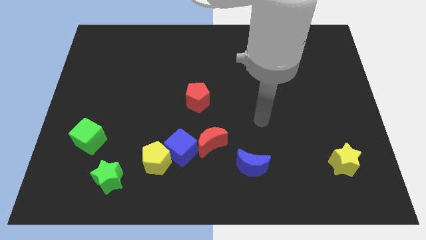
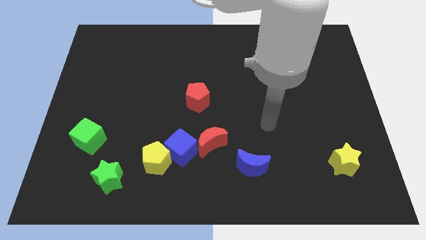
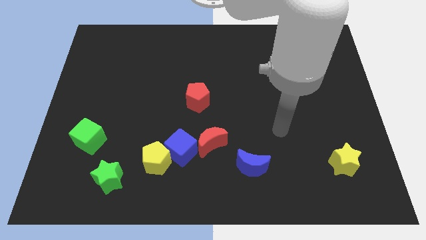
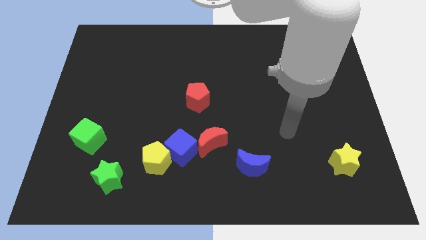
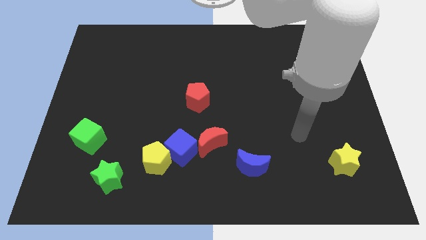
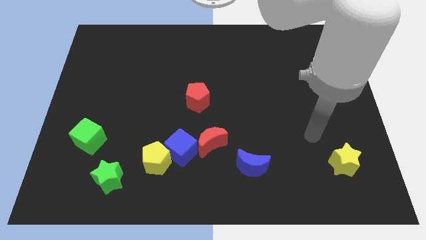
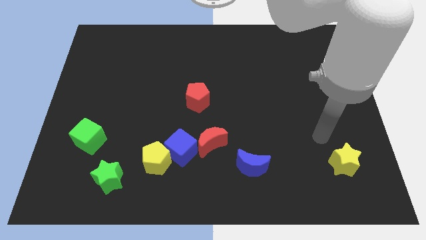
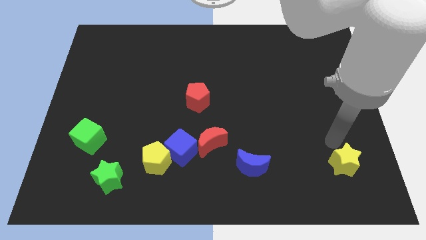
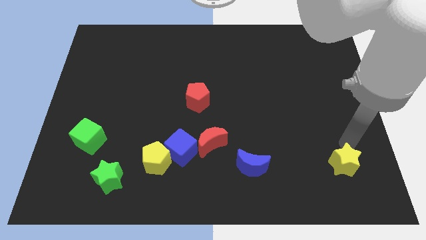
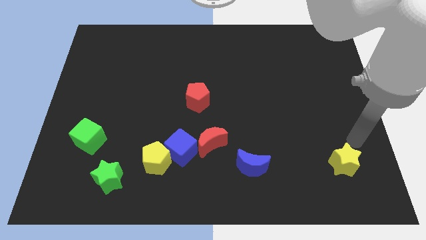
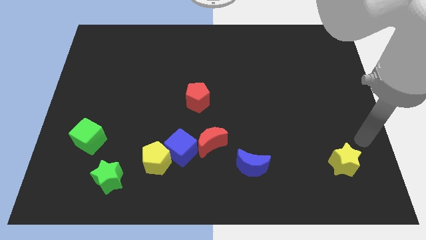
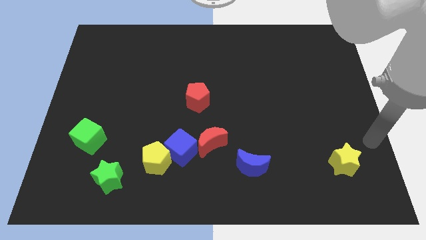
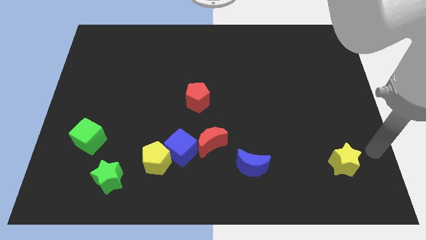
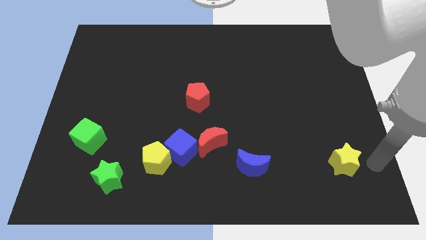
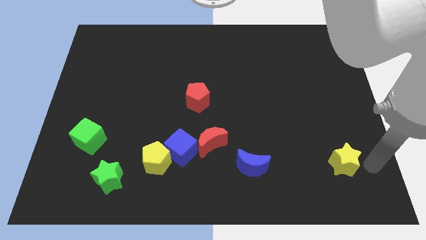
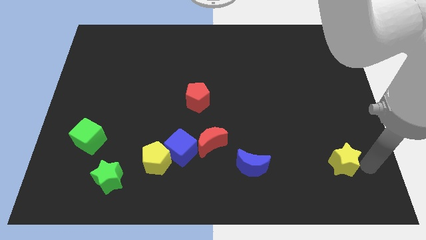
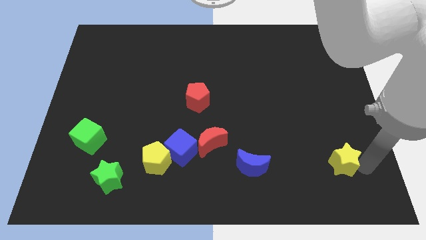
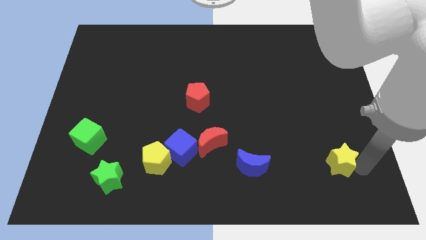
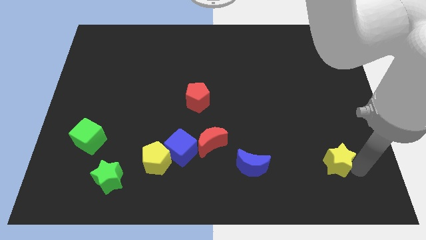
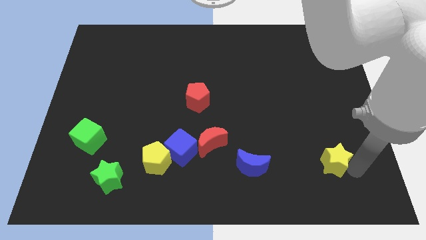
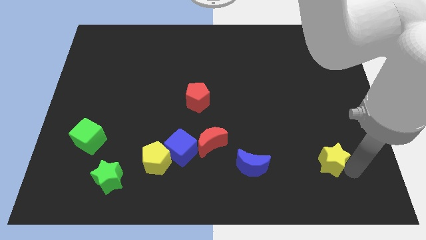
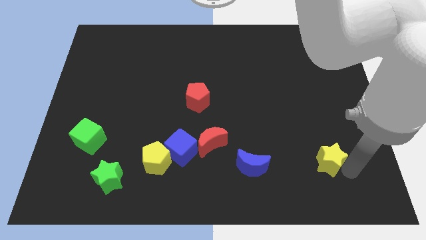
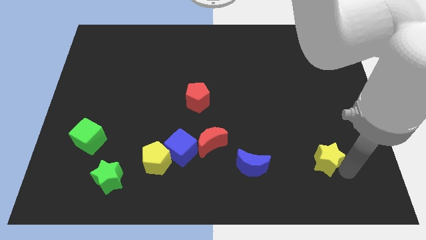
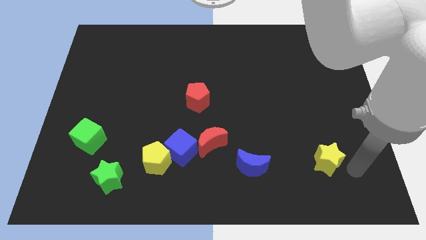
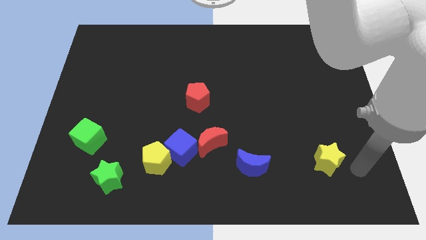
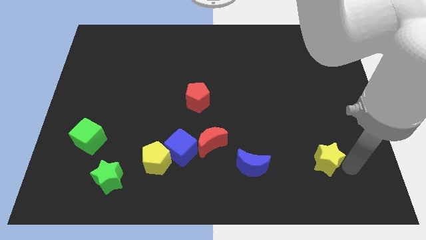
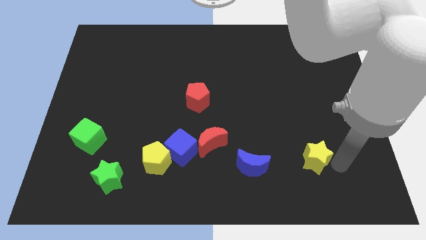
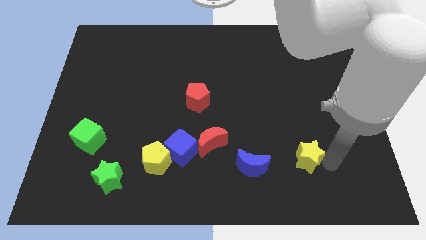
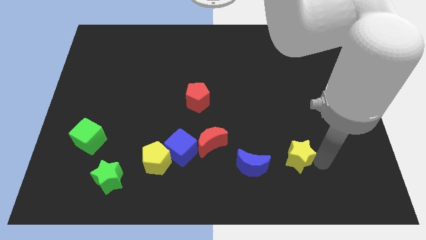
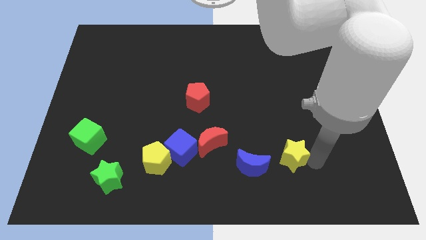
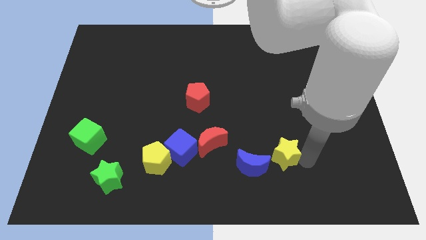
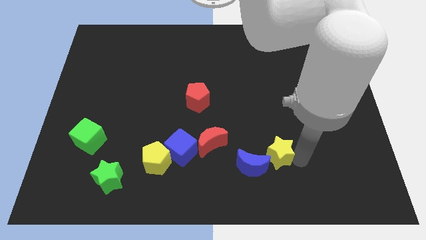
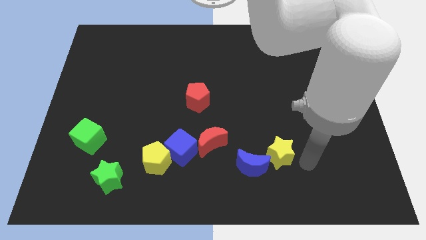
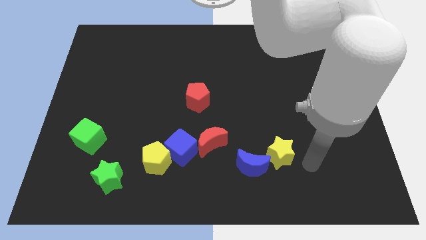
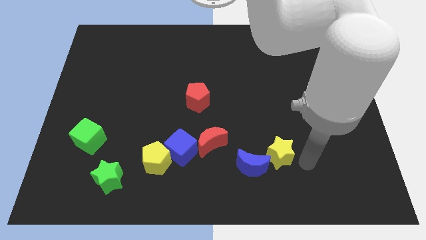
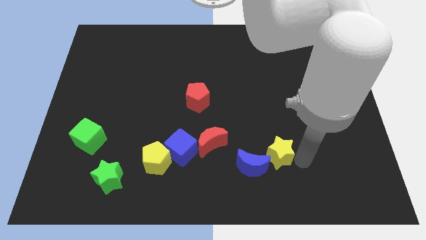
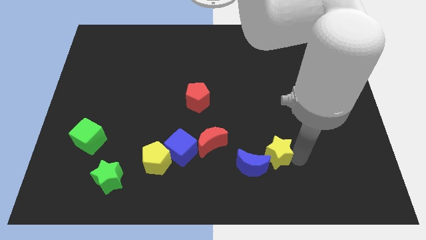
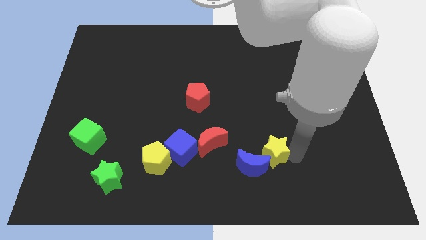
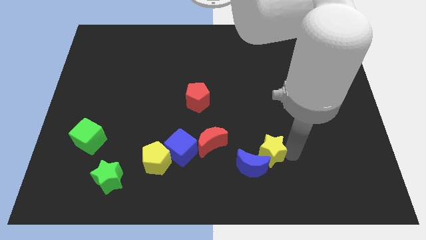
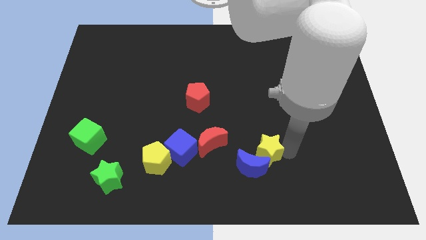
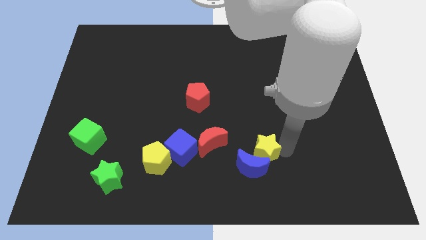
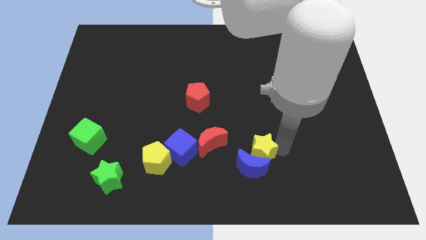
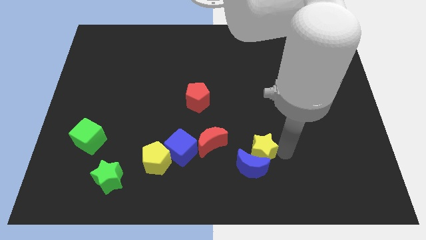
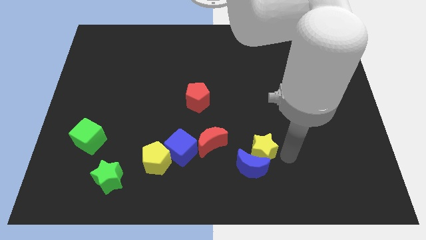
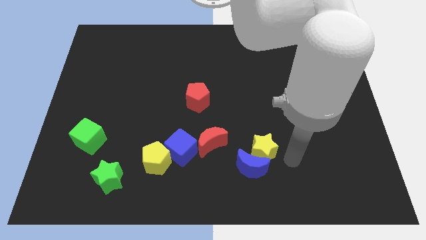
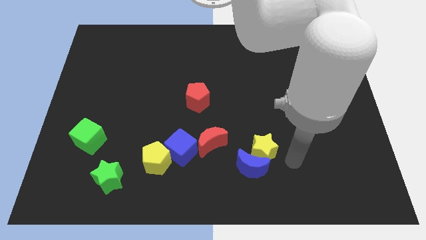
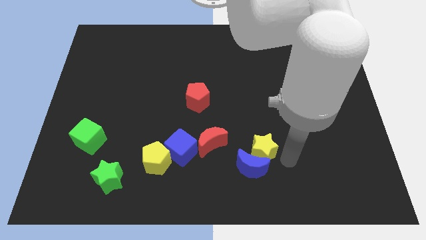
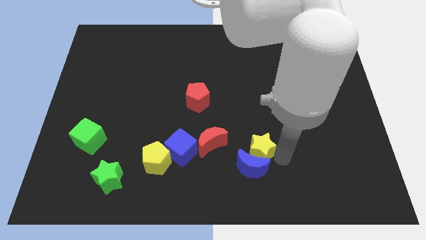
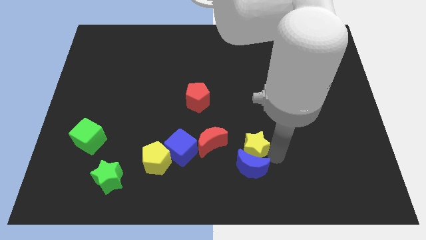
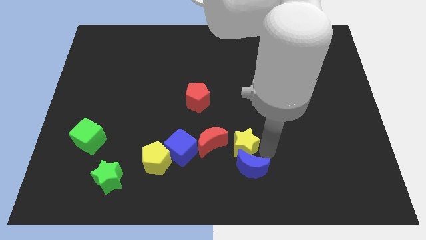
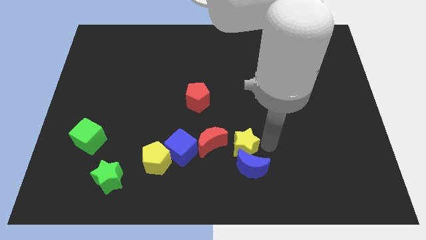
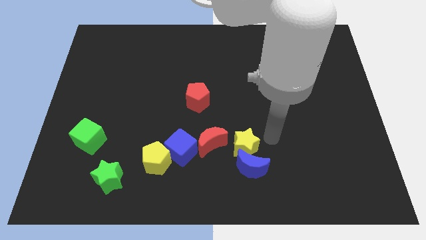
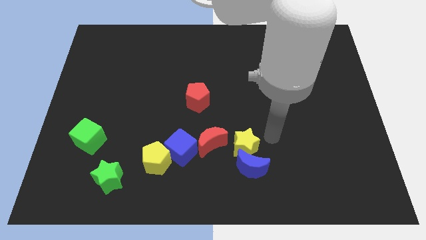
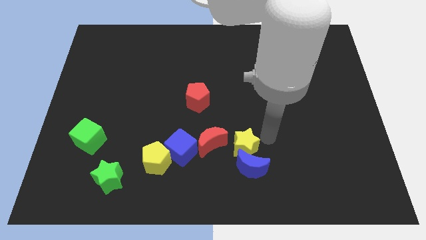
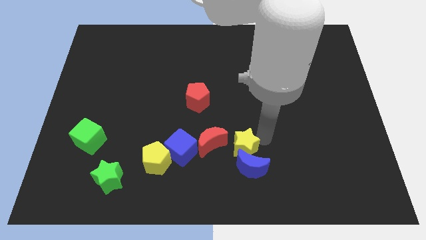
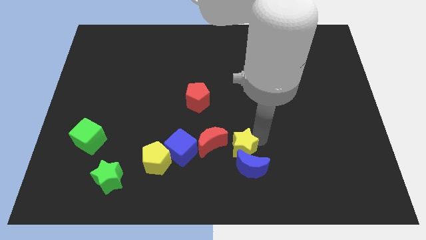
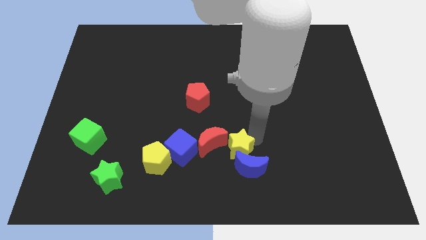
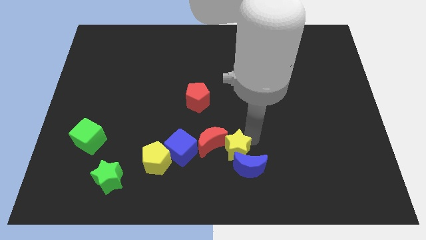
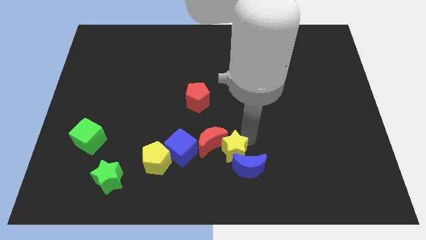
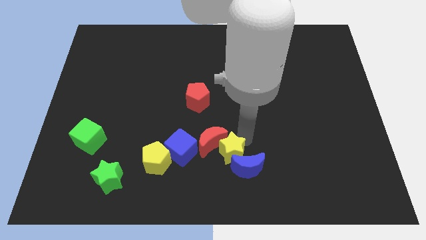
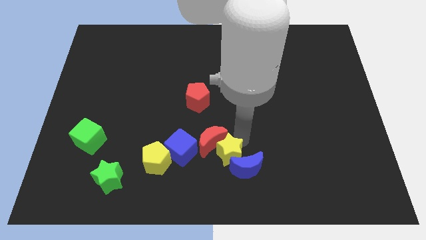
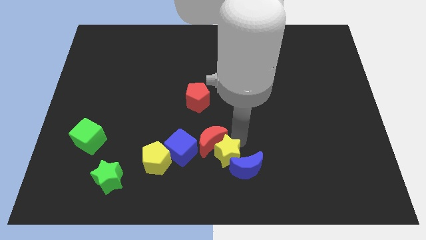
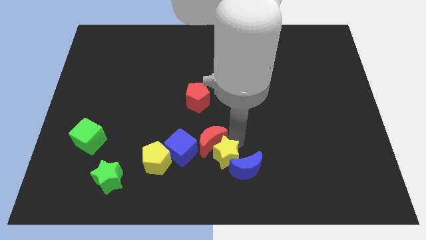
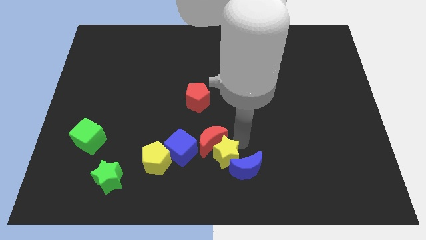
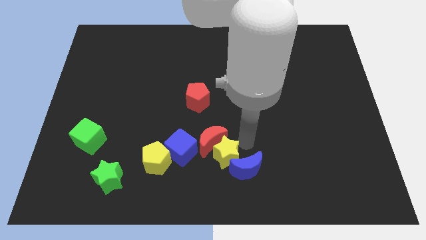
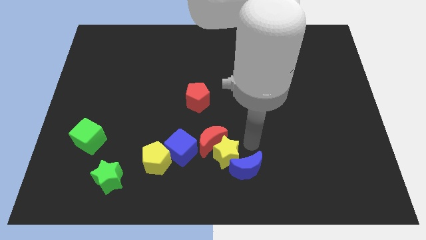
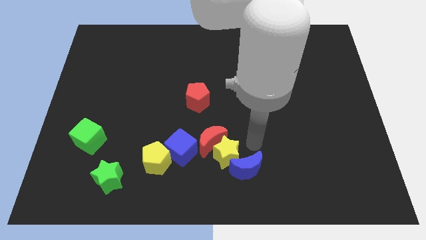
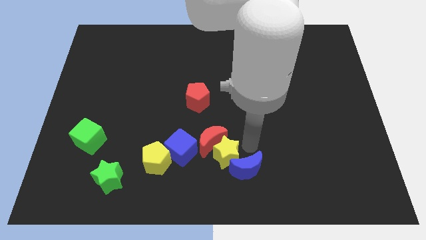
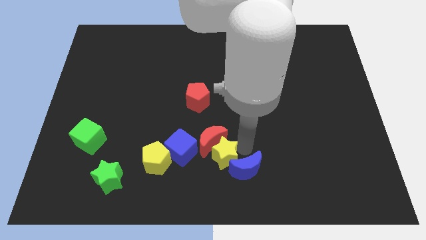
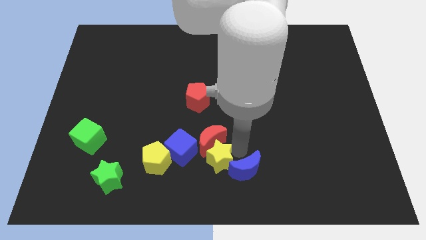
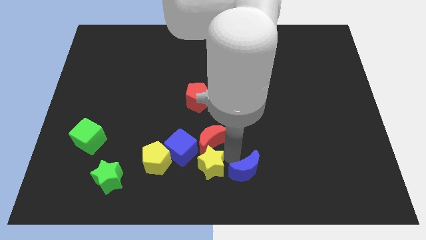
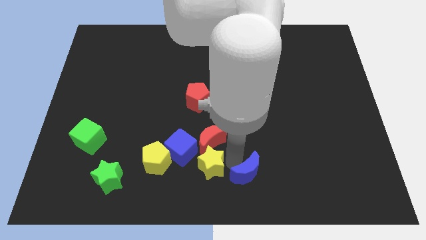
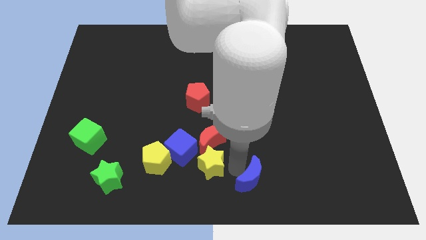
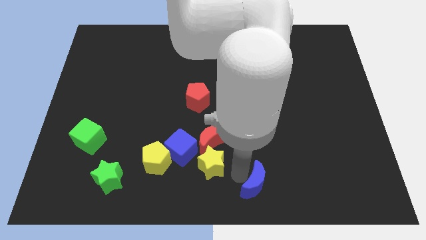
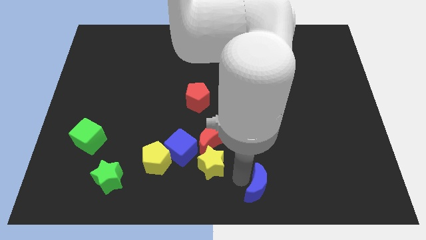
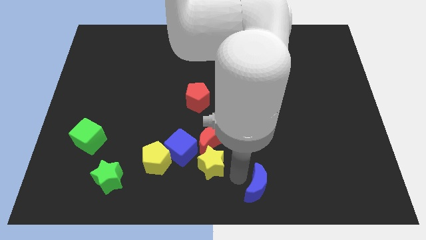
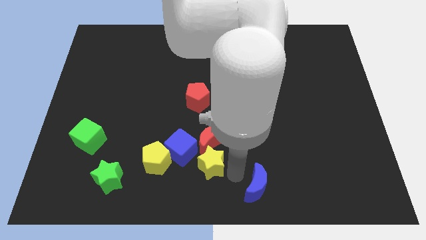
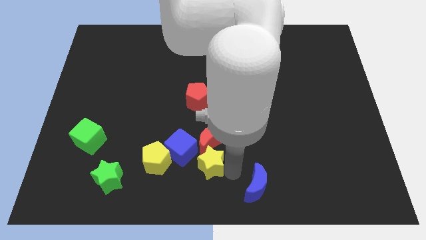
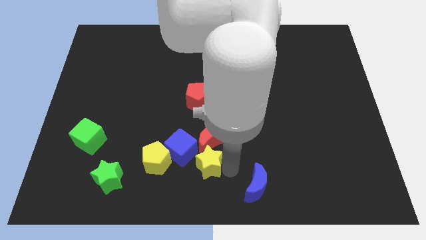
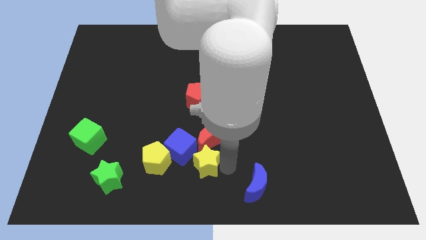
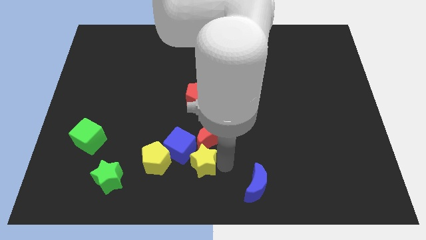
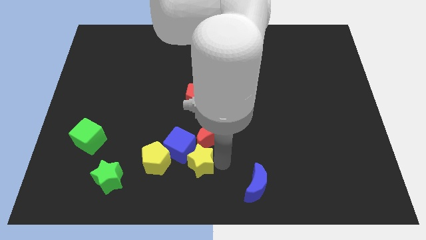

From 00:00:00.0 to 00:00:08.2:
push the yellow star close to the blue cube
